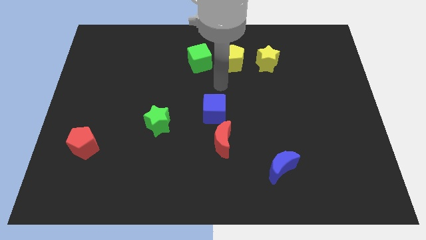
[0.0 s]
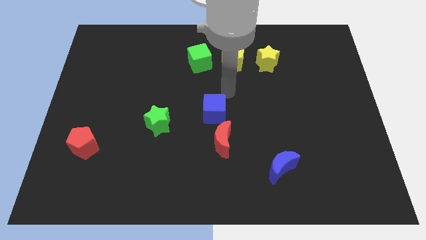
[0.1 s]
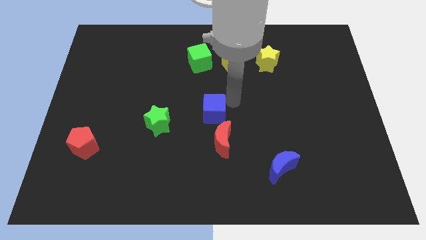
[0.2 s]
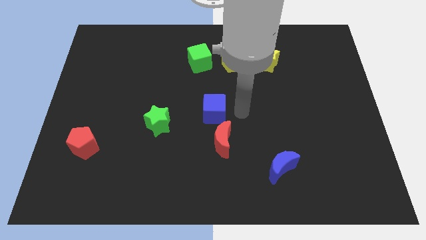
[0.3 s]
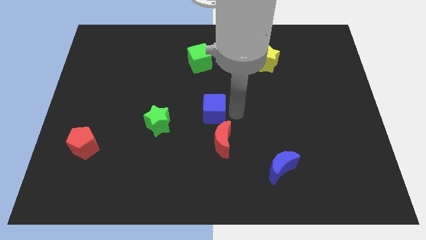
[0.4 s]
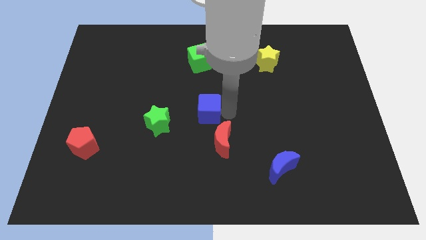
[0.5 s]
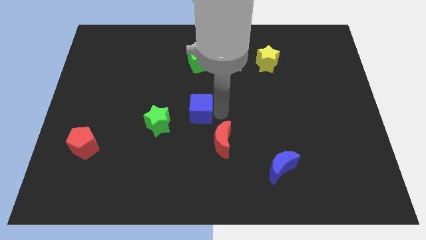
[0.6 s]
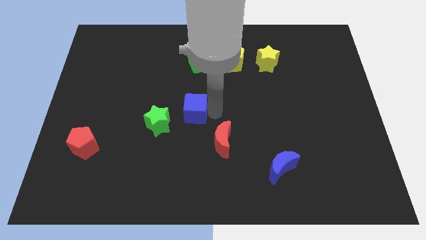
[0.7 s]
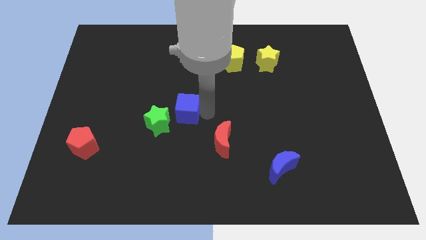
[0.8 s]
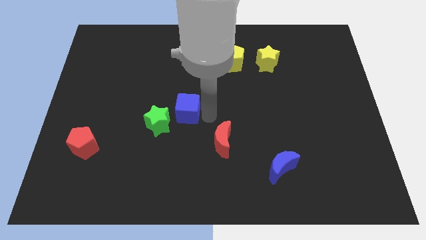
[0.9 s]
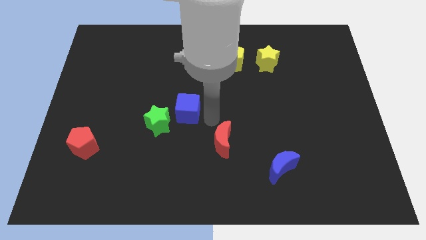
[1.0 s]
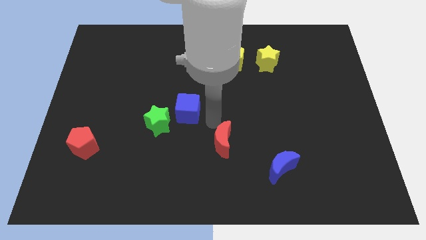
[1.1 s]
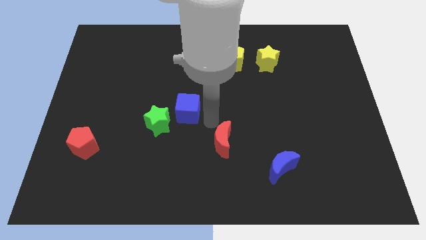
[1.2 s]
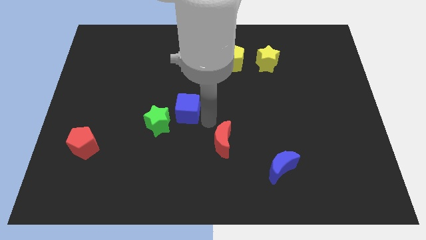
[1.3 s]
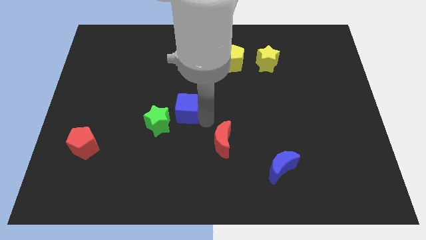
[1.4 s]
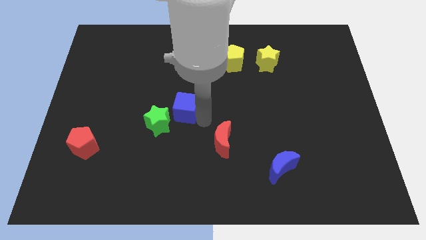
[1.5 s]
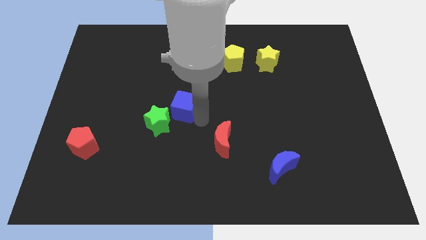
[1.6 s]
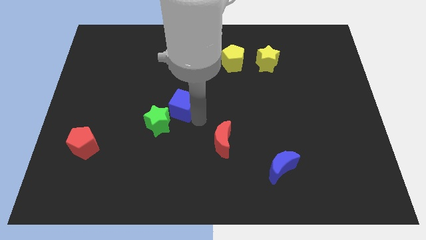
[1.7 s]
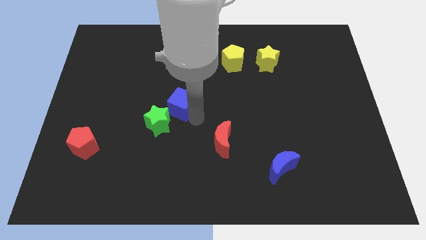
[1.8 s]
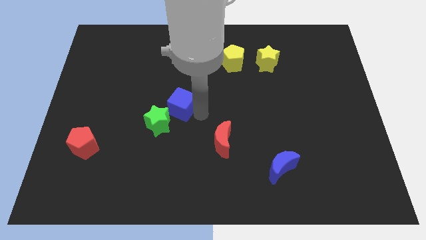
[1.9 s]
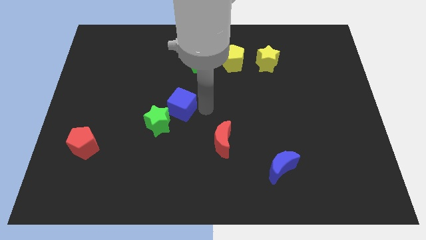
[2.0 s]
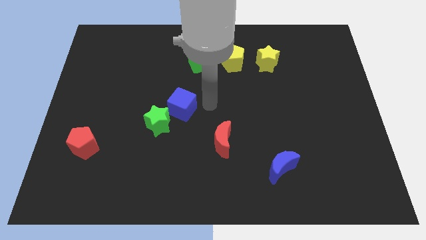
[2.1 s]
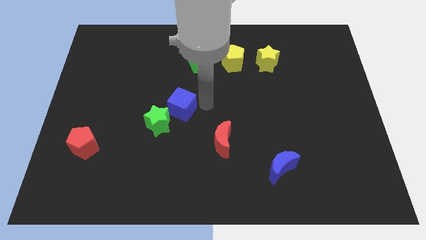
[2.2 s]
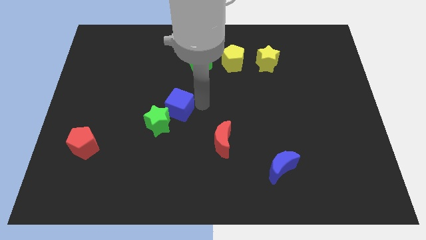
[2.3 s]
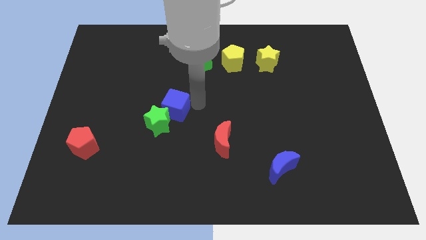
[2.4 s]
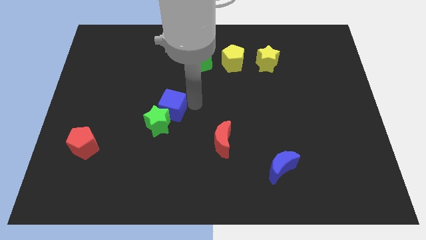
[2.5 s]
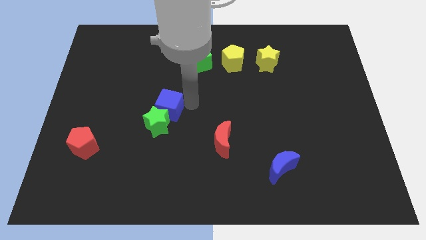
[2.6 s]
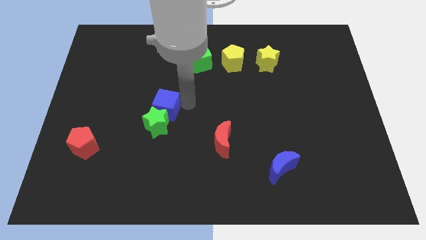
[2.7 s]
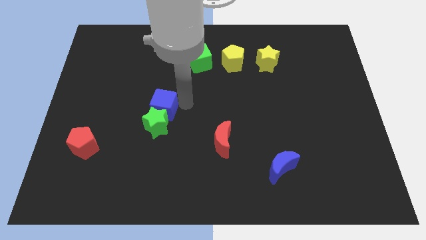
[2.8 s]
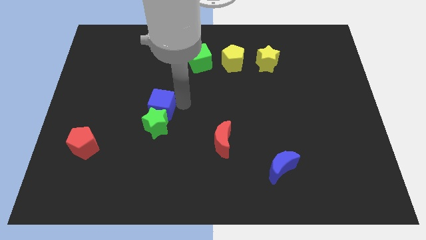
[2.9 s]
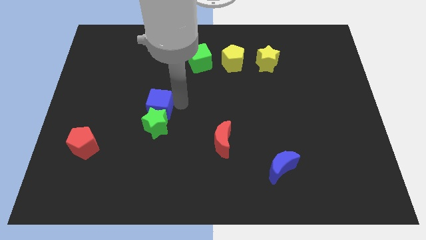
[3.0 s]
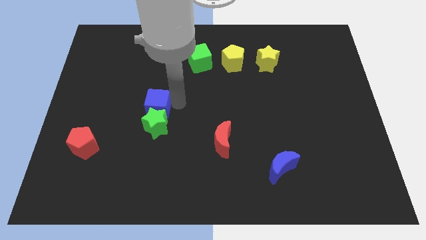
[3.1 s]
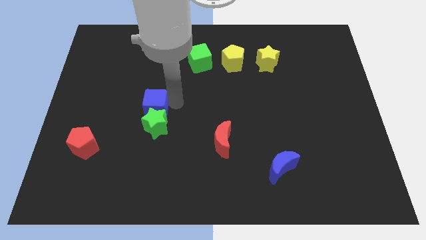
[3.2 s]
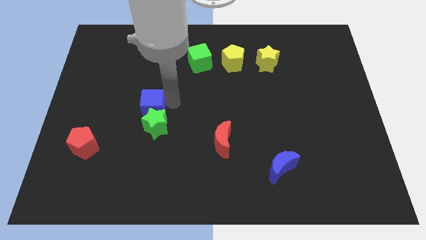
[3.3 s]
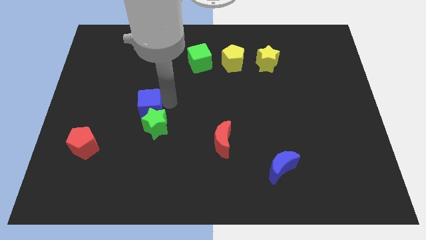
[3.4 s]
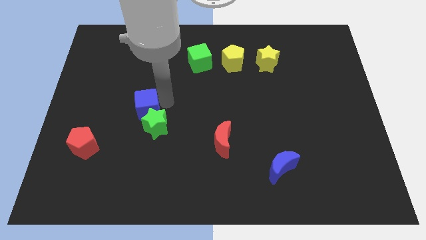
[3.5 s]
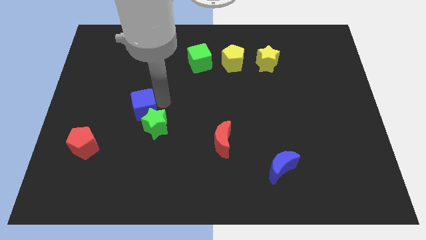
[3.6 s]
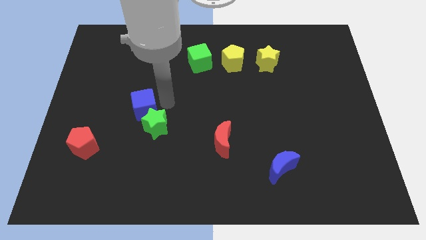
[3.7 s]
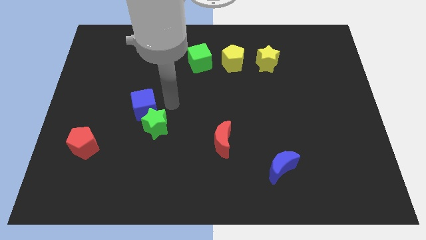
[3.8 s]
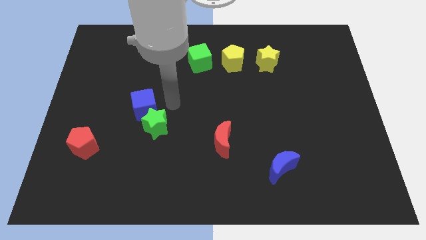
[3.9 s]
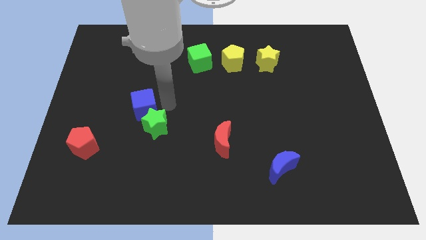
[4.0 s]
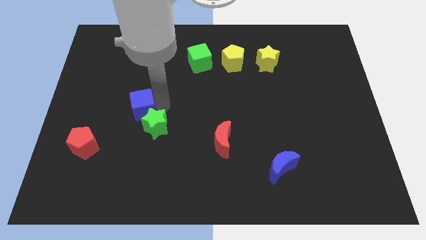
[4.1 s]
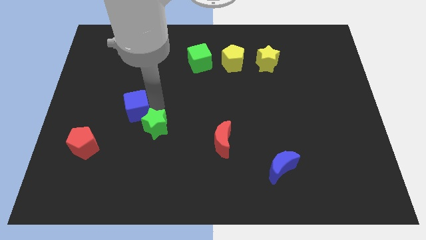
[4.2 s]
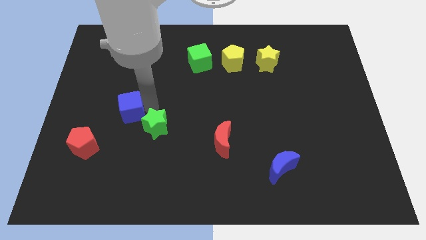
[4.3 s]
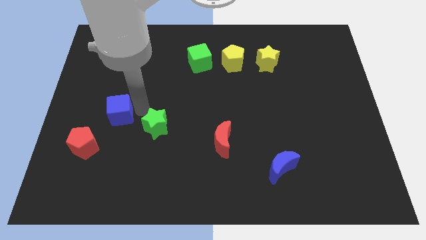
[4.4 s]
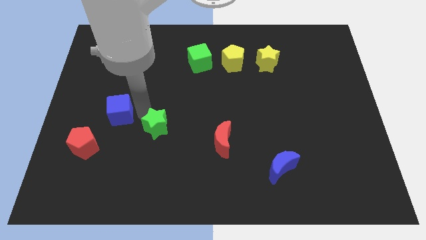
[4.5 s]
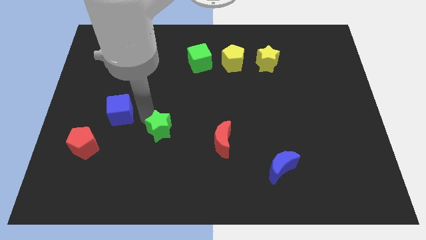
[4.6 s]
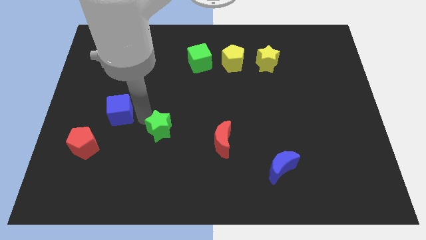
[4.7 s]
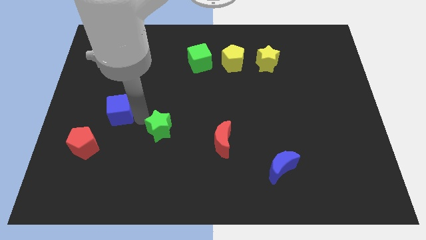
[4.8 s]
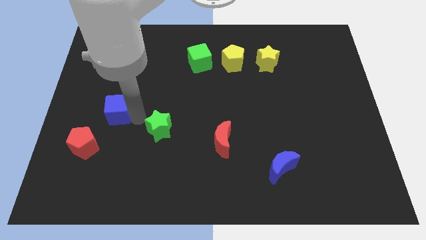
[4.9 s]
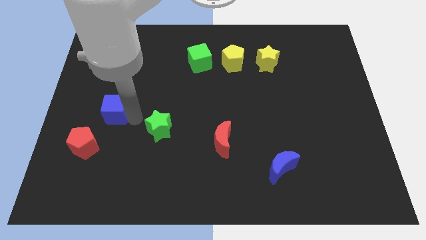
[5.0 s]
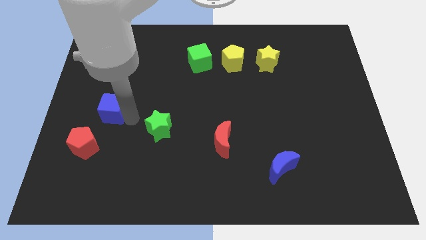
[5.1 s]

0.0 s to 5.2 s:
slide the blue cube to the top side of the red pentagon

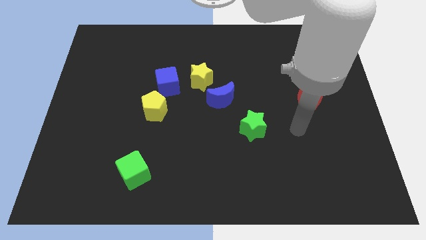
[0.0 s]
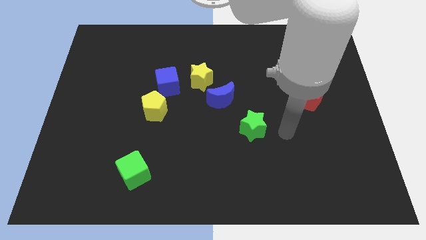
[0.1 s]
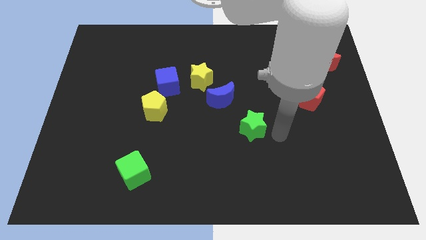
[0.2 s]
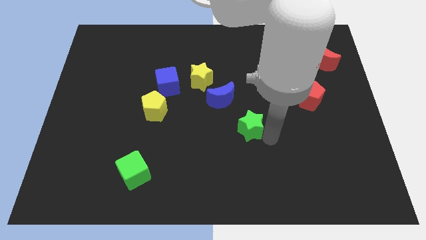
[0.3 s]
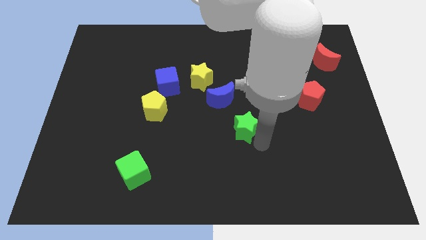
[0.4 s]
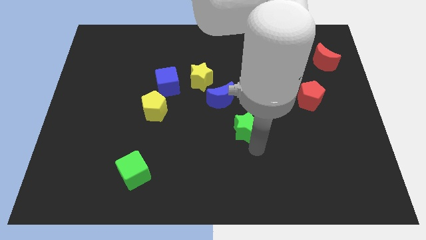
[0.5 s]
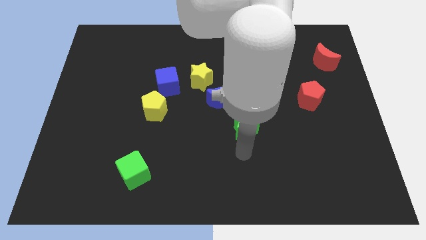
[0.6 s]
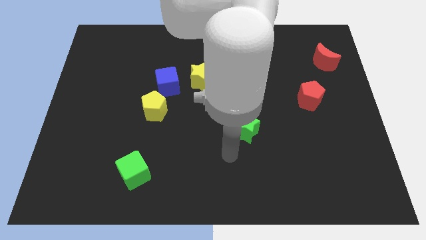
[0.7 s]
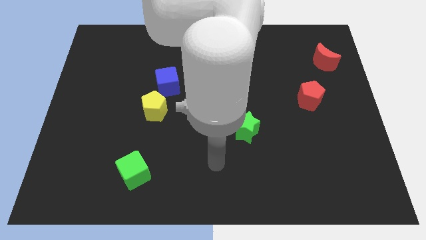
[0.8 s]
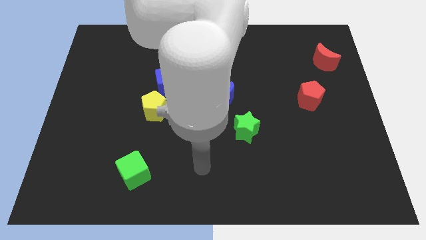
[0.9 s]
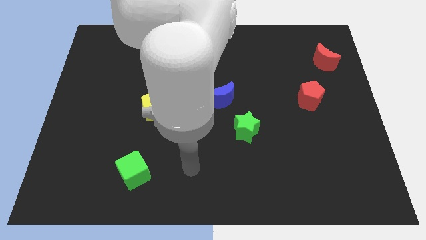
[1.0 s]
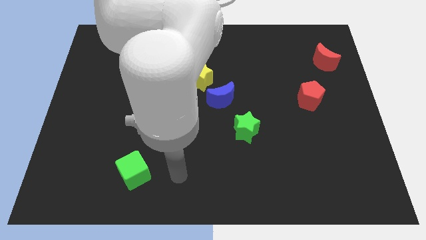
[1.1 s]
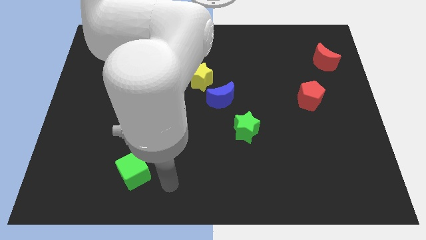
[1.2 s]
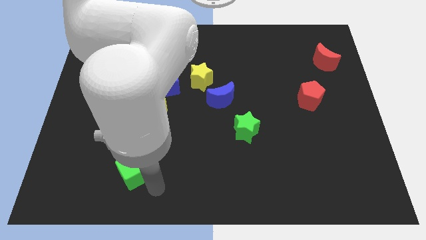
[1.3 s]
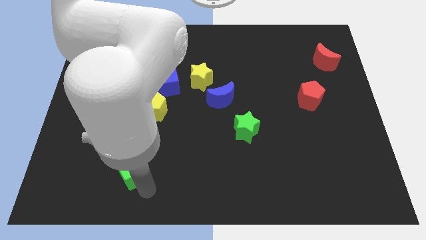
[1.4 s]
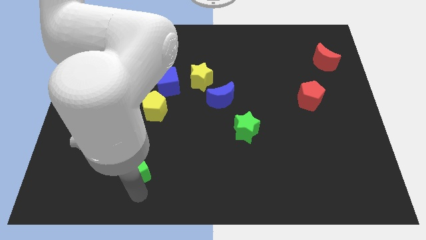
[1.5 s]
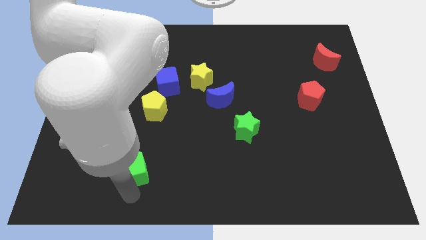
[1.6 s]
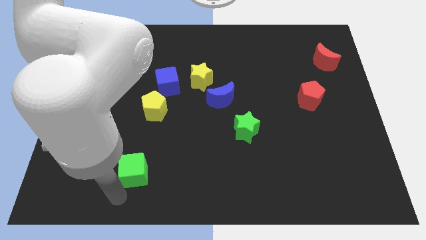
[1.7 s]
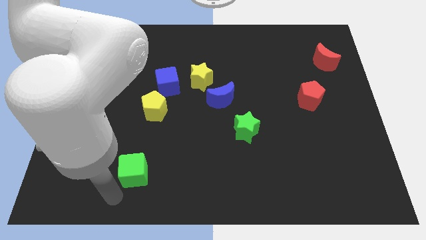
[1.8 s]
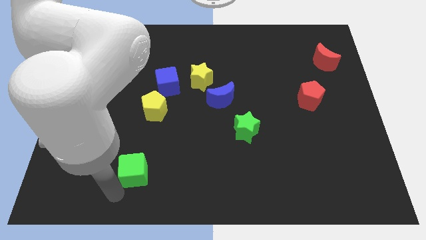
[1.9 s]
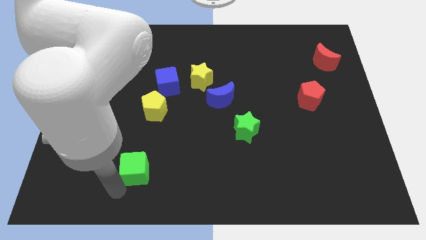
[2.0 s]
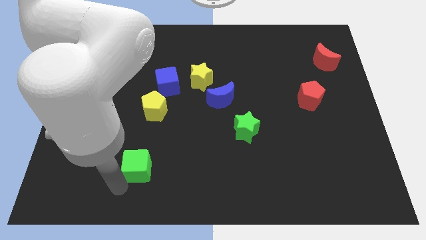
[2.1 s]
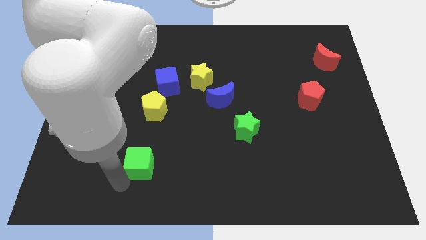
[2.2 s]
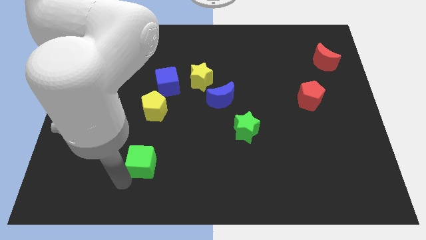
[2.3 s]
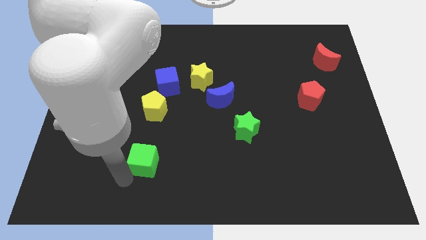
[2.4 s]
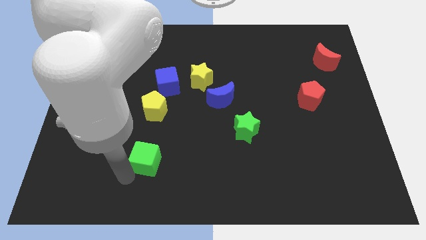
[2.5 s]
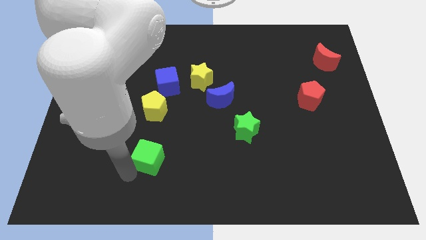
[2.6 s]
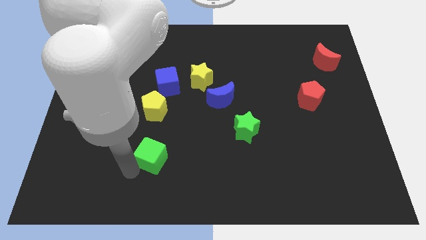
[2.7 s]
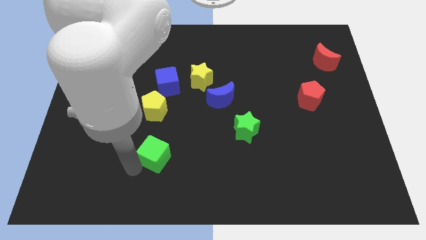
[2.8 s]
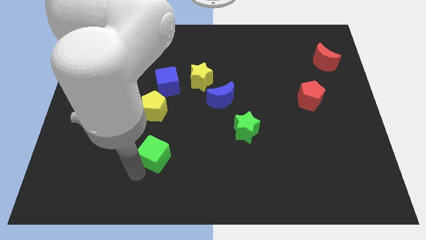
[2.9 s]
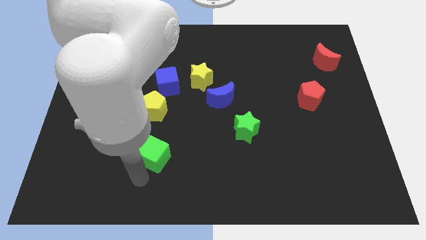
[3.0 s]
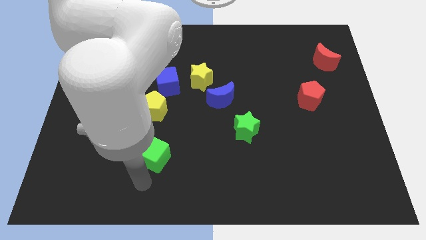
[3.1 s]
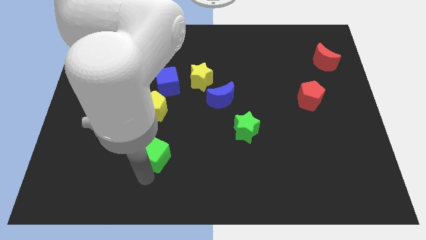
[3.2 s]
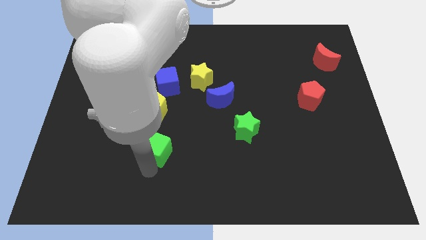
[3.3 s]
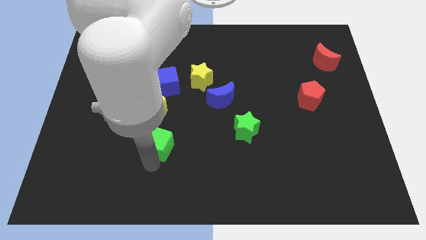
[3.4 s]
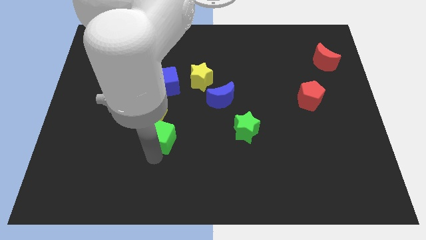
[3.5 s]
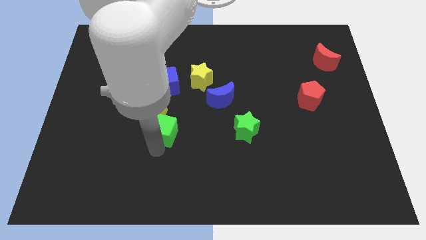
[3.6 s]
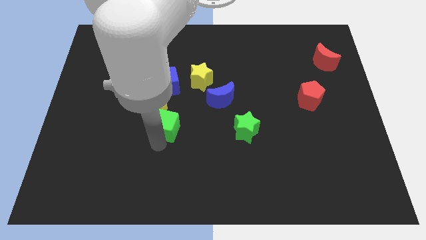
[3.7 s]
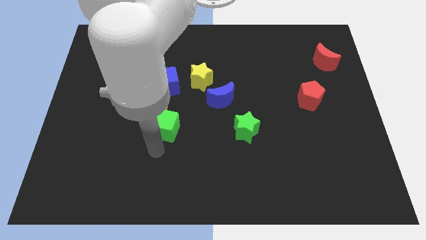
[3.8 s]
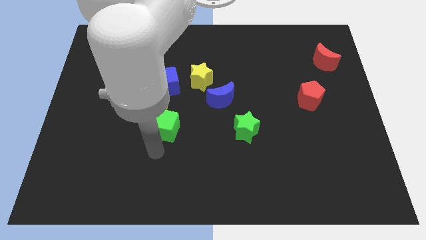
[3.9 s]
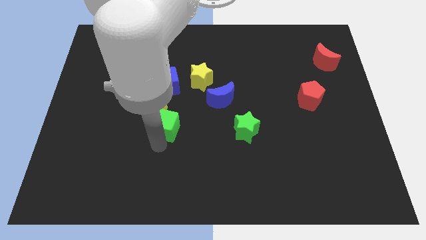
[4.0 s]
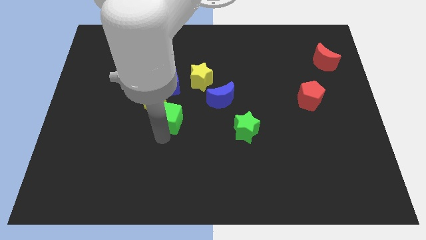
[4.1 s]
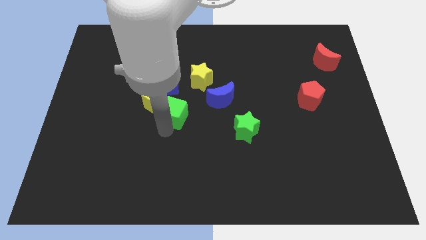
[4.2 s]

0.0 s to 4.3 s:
move the green cube to the left side of the blue moon
